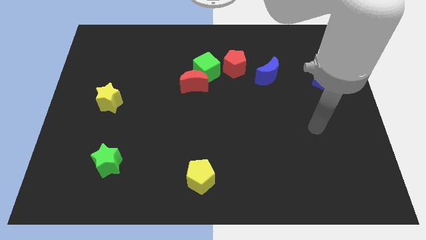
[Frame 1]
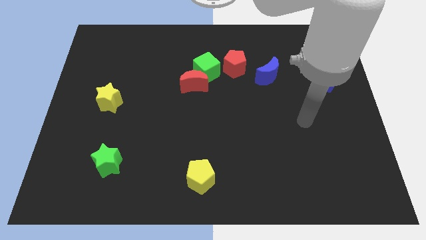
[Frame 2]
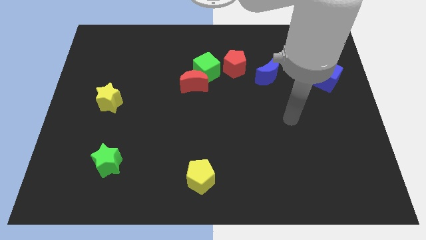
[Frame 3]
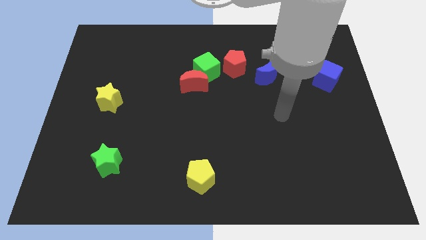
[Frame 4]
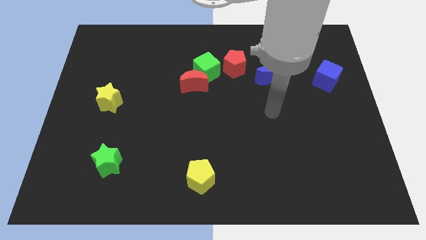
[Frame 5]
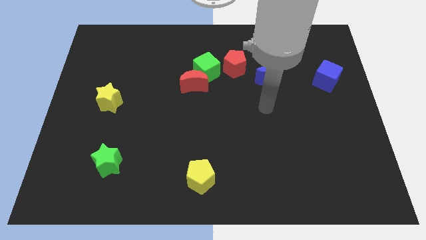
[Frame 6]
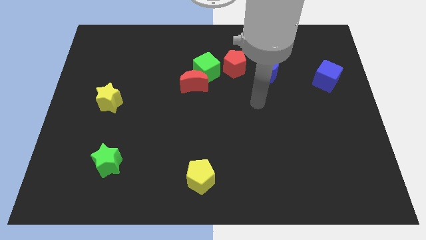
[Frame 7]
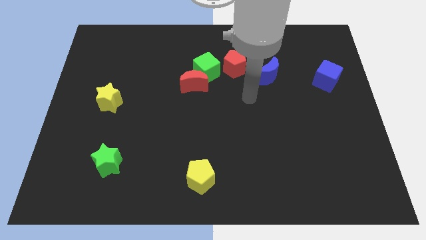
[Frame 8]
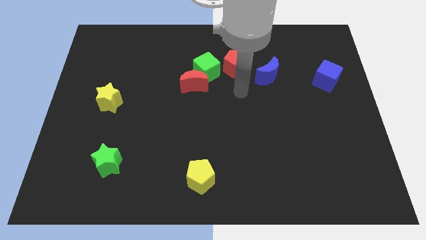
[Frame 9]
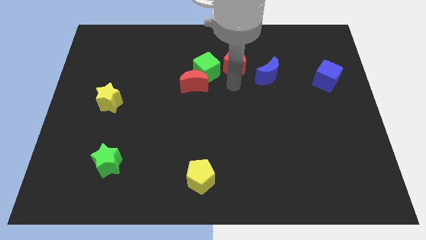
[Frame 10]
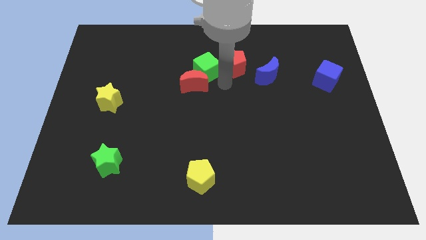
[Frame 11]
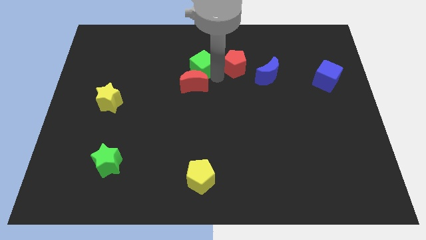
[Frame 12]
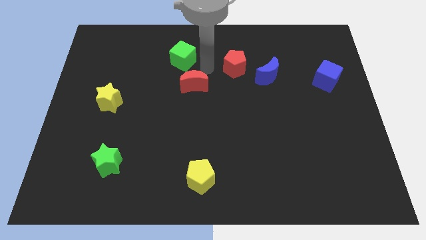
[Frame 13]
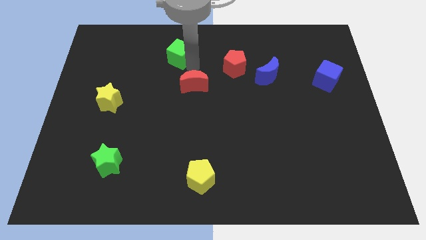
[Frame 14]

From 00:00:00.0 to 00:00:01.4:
move the red moon away from the green cube

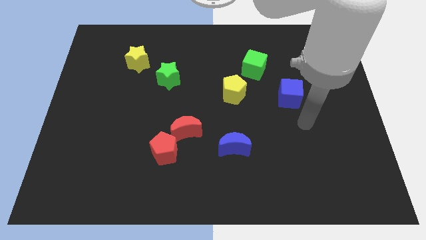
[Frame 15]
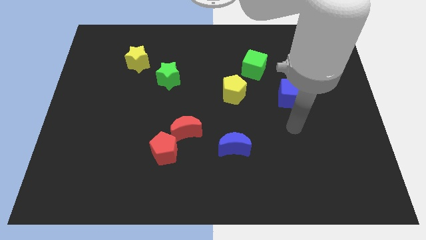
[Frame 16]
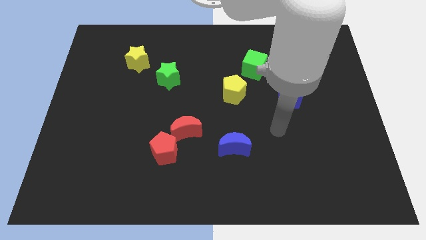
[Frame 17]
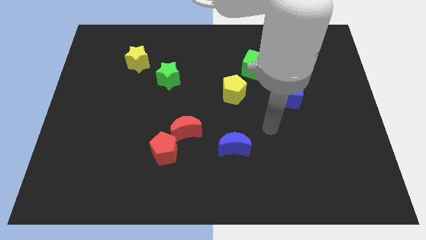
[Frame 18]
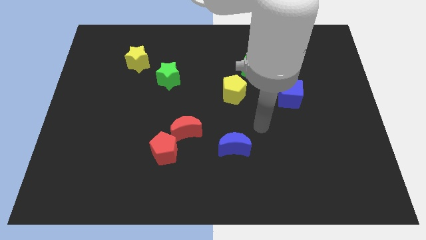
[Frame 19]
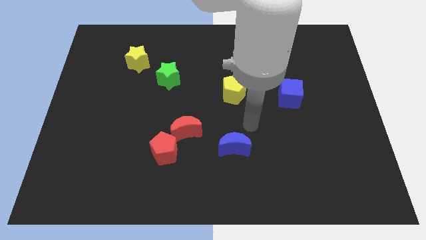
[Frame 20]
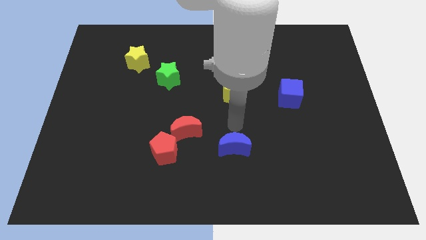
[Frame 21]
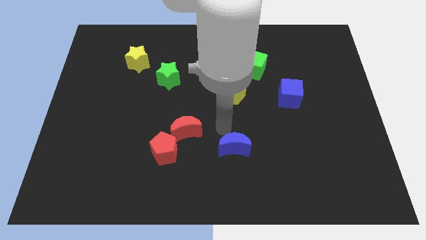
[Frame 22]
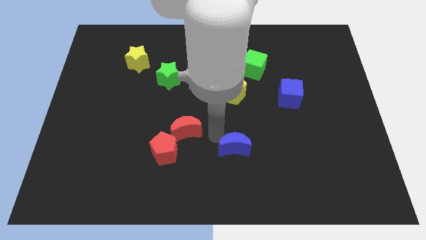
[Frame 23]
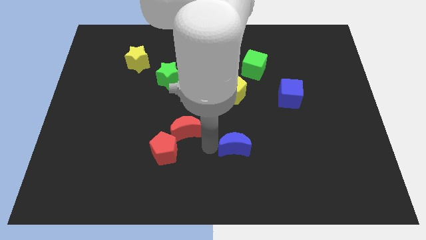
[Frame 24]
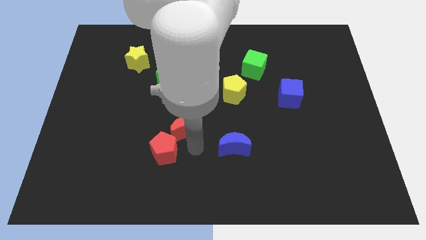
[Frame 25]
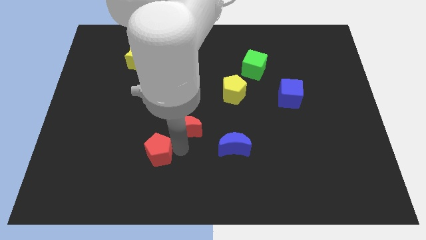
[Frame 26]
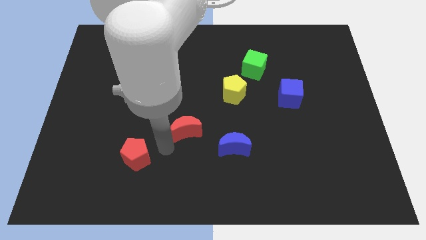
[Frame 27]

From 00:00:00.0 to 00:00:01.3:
separate the red moon from the red pentagon

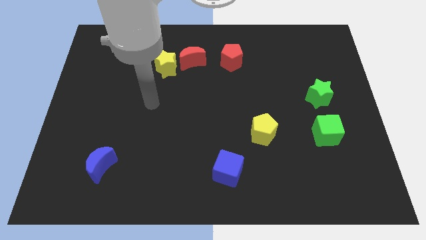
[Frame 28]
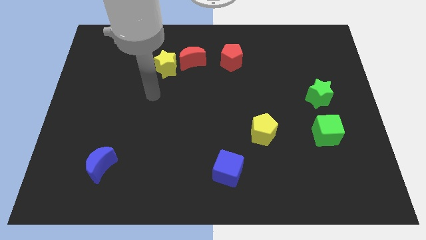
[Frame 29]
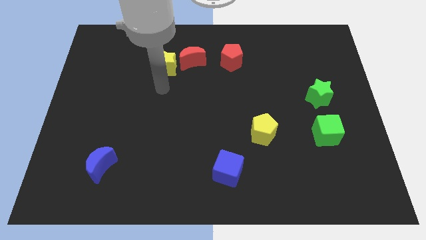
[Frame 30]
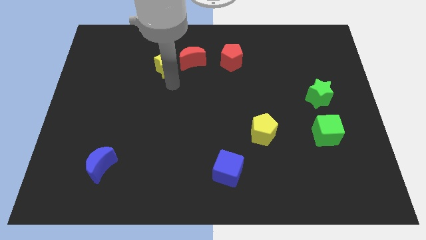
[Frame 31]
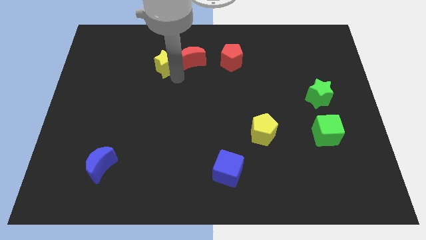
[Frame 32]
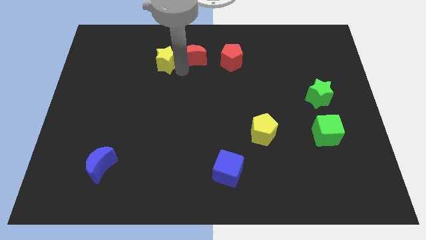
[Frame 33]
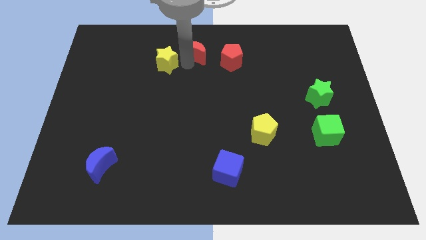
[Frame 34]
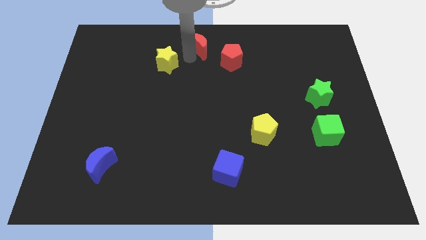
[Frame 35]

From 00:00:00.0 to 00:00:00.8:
pull the yellow star apart from the red moon

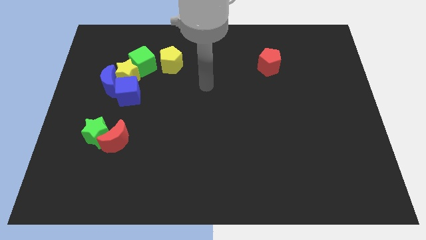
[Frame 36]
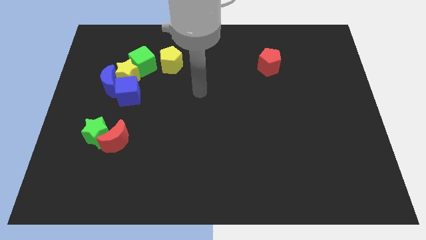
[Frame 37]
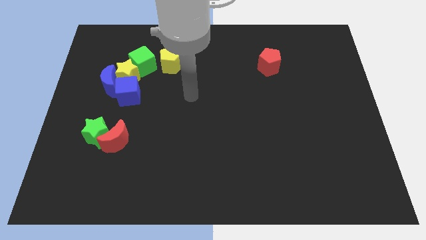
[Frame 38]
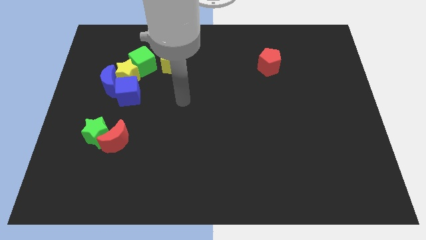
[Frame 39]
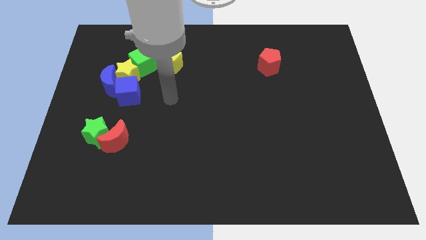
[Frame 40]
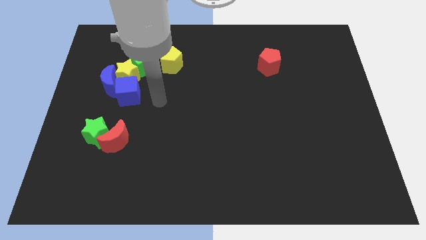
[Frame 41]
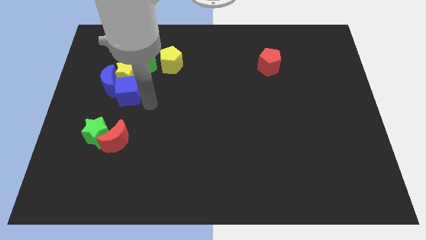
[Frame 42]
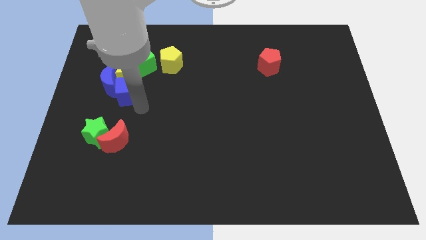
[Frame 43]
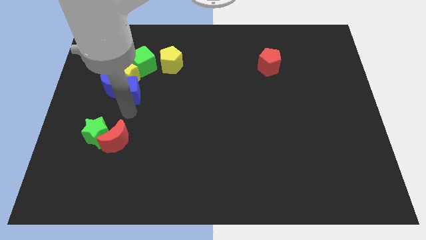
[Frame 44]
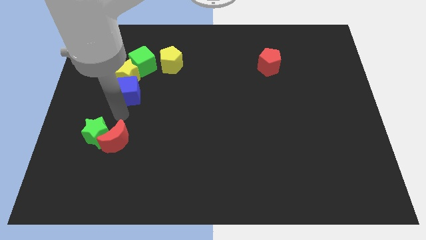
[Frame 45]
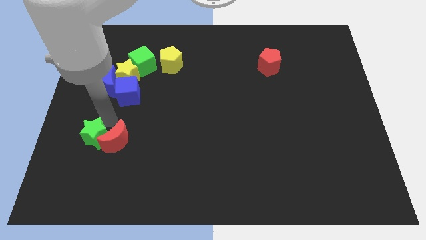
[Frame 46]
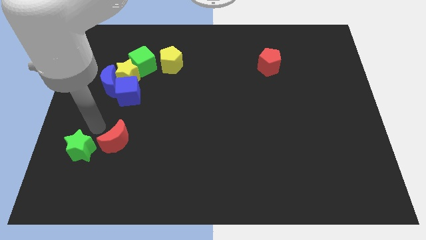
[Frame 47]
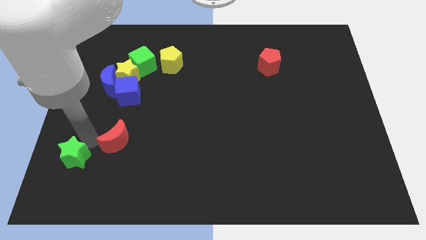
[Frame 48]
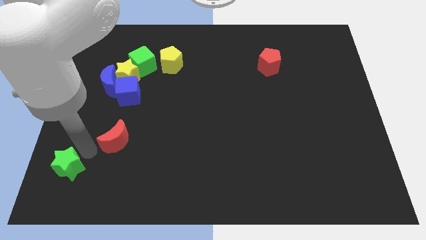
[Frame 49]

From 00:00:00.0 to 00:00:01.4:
move the red moon away from the green star

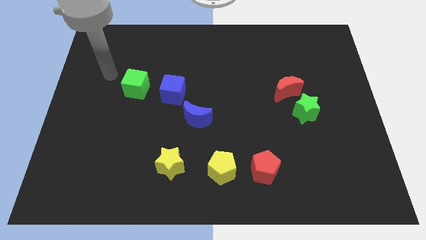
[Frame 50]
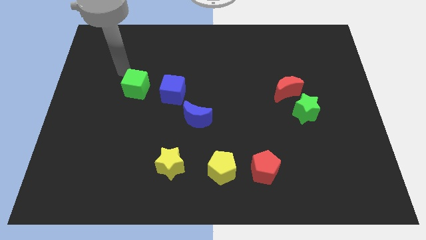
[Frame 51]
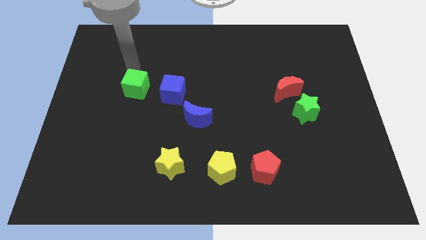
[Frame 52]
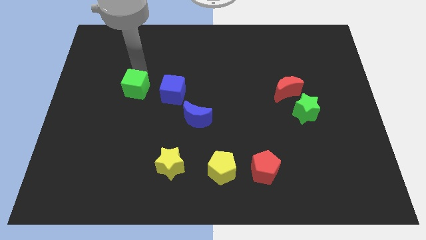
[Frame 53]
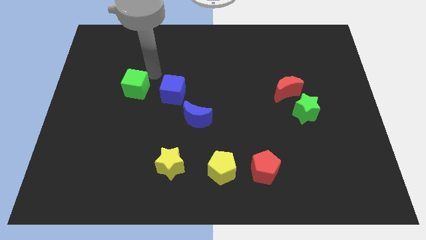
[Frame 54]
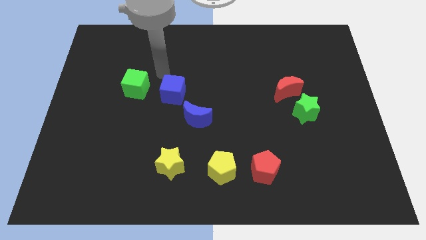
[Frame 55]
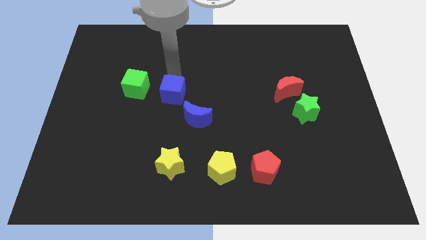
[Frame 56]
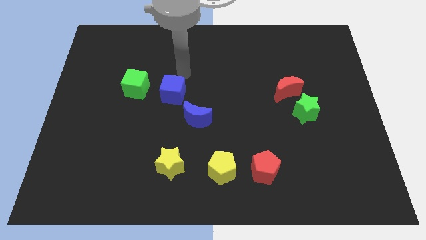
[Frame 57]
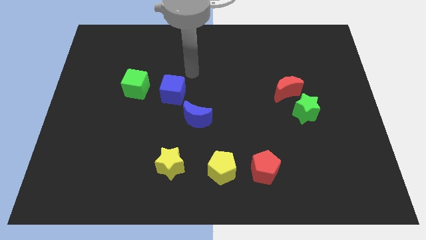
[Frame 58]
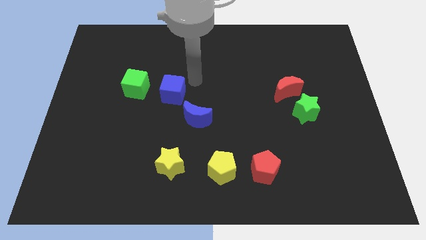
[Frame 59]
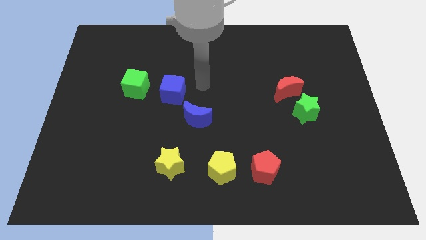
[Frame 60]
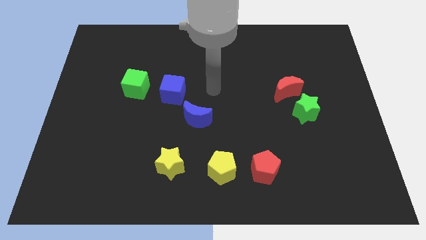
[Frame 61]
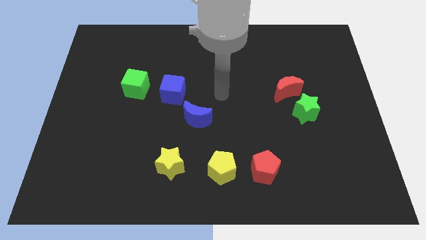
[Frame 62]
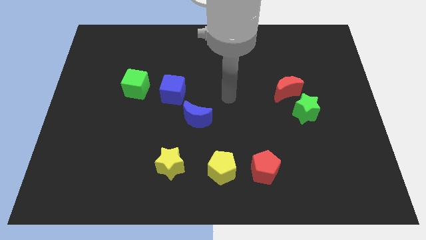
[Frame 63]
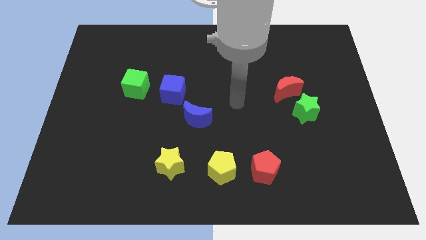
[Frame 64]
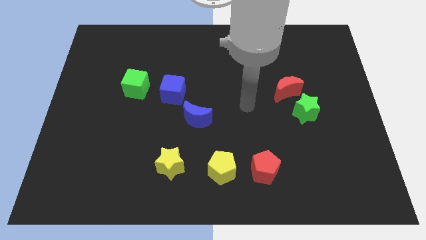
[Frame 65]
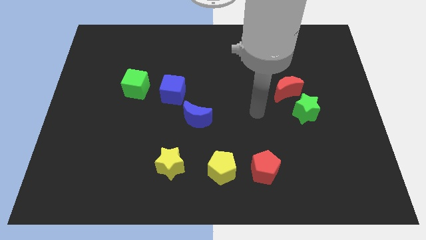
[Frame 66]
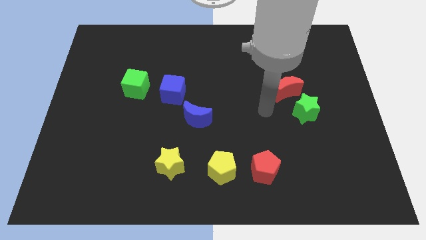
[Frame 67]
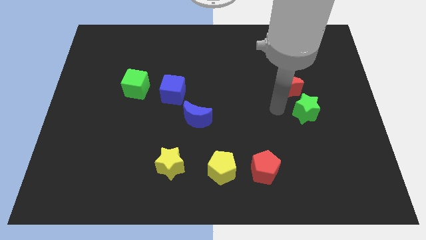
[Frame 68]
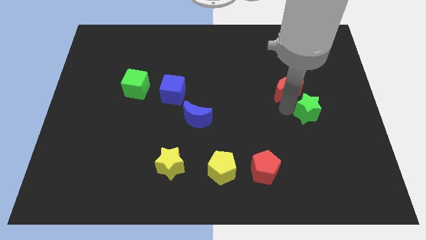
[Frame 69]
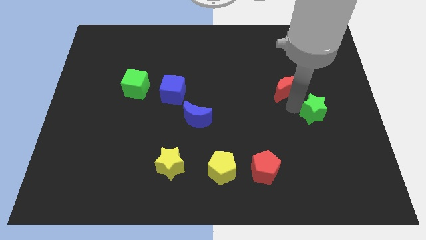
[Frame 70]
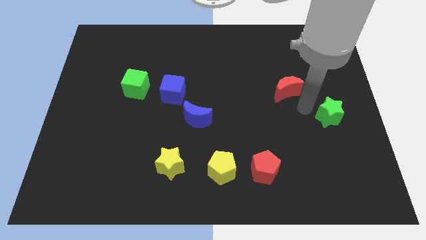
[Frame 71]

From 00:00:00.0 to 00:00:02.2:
pull the red moon apart from the green star

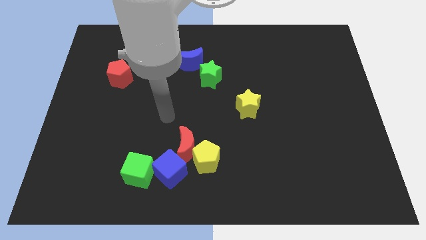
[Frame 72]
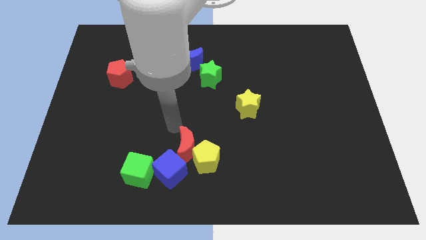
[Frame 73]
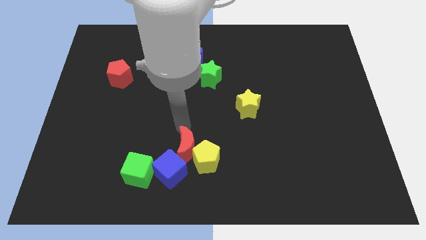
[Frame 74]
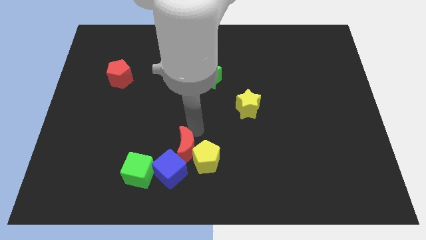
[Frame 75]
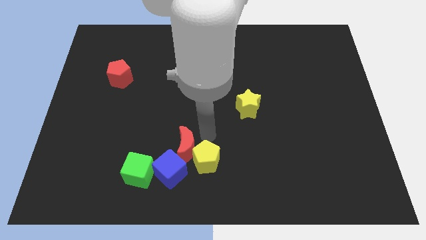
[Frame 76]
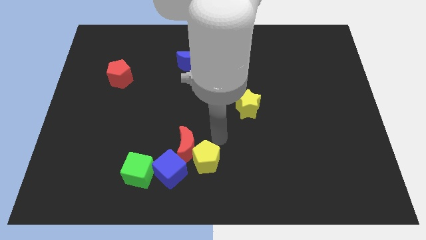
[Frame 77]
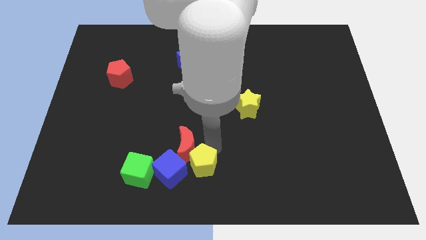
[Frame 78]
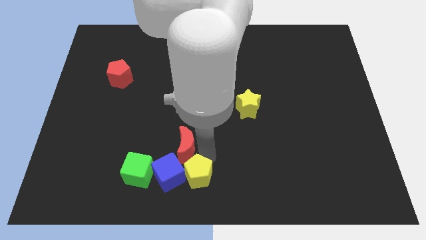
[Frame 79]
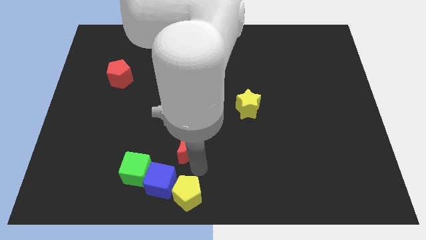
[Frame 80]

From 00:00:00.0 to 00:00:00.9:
move the red moon away from the yellow pentagon and blue cube

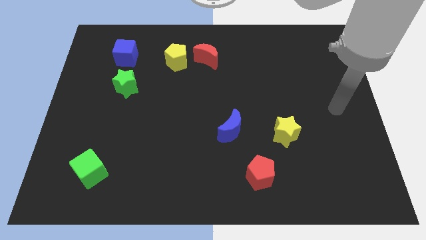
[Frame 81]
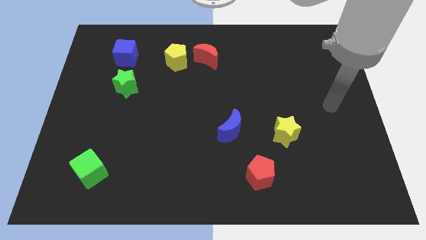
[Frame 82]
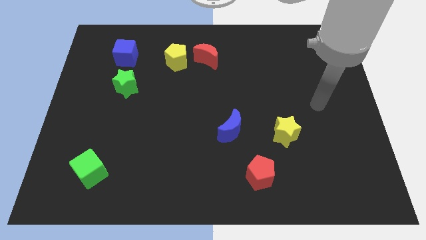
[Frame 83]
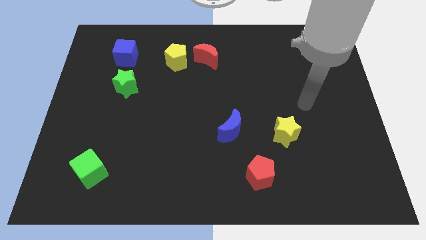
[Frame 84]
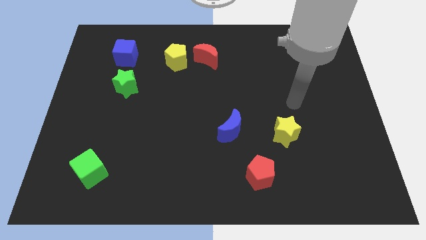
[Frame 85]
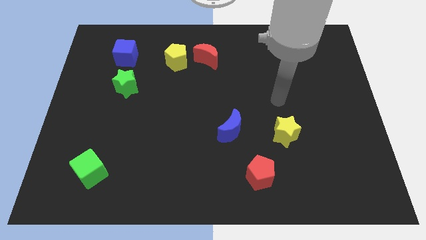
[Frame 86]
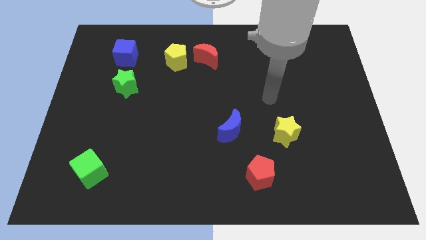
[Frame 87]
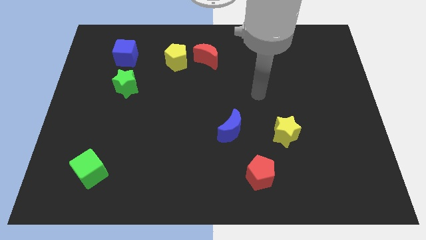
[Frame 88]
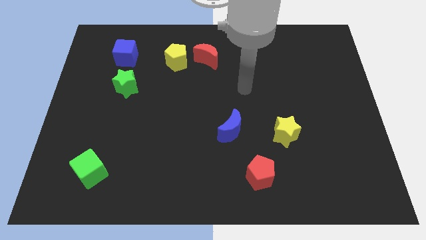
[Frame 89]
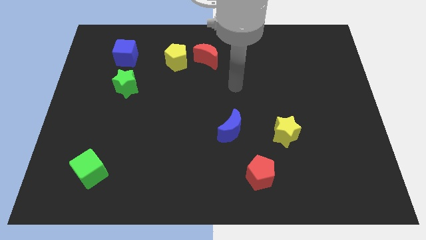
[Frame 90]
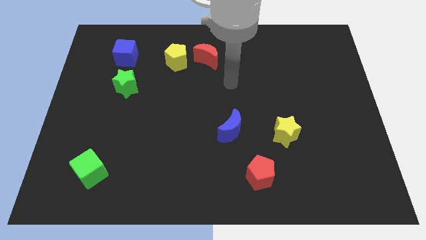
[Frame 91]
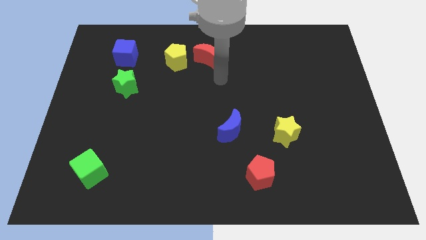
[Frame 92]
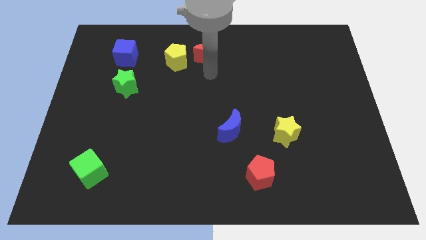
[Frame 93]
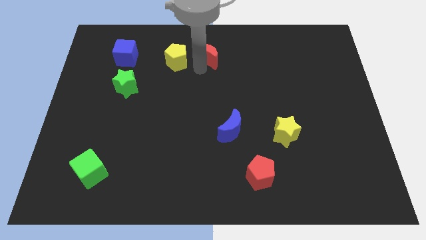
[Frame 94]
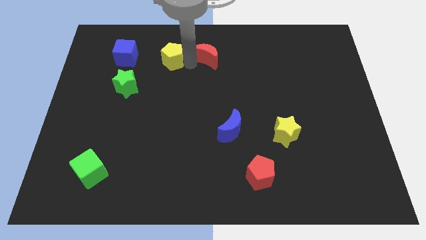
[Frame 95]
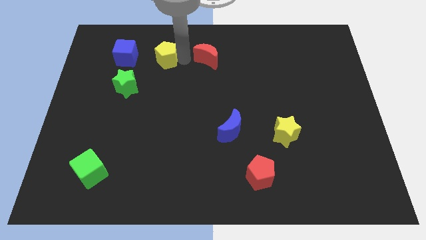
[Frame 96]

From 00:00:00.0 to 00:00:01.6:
separate the red moon from the yellow pentagon
